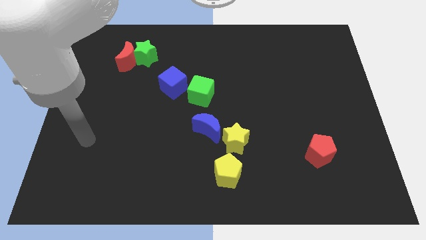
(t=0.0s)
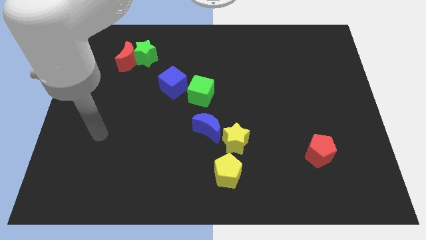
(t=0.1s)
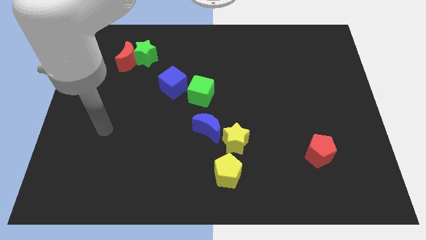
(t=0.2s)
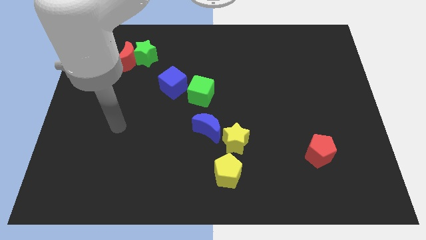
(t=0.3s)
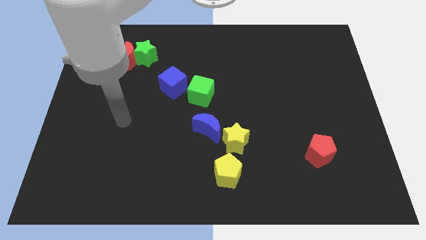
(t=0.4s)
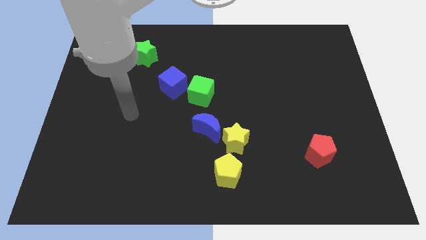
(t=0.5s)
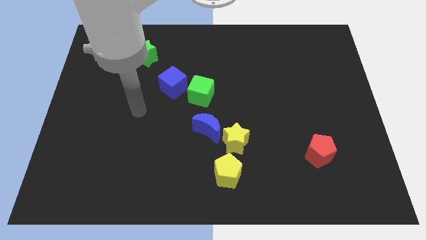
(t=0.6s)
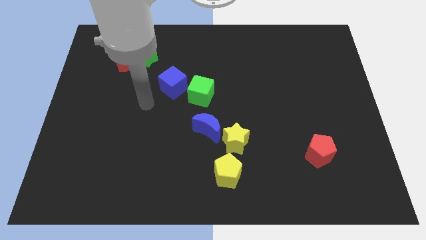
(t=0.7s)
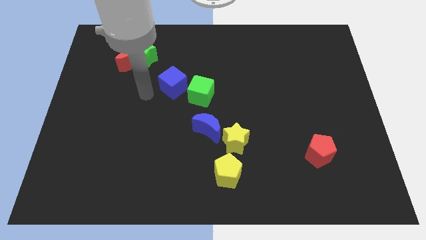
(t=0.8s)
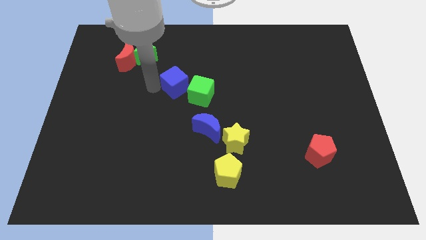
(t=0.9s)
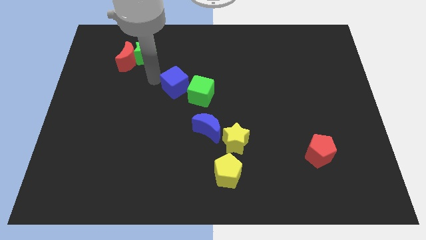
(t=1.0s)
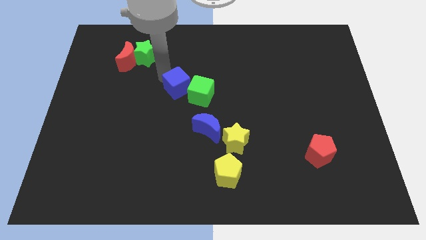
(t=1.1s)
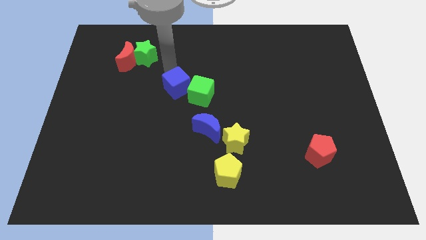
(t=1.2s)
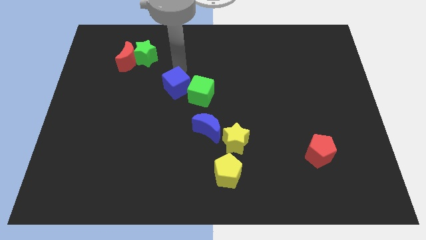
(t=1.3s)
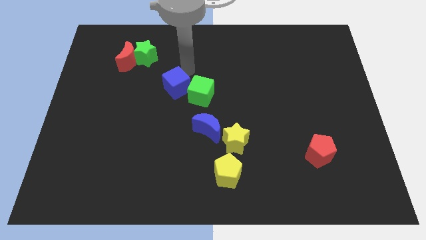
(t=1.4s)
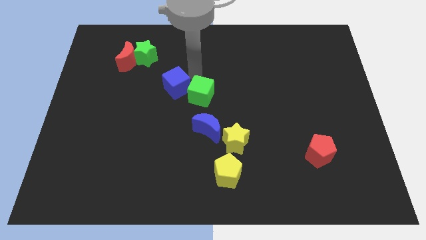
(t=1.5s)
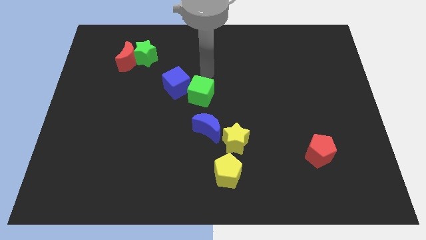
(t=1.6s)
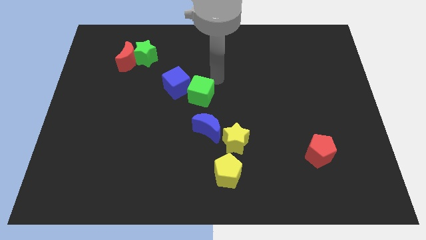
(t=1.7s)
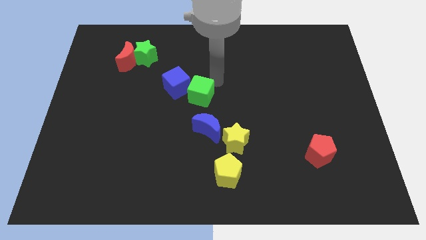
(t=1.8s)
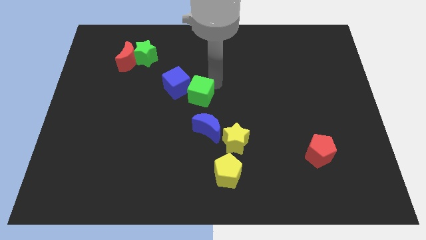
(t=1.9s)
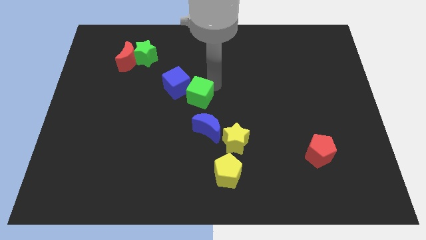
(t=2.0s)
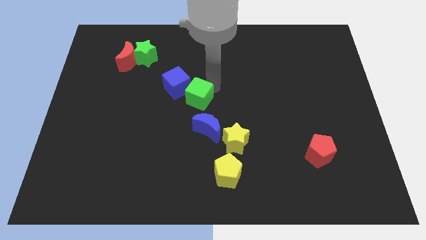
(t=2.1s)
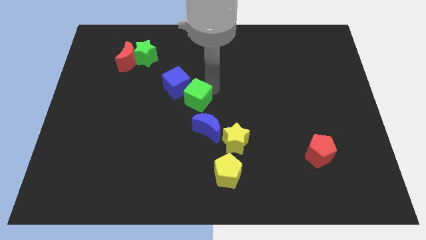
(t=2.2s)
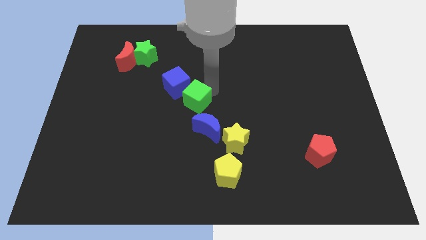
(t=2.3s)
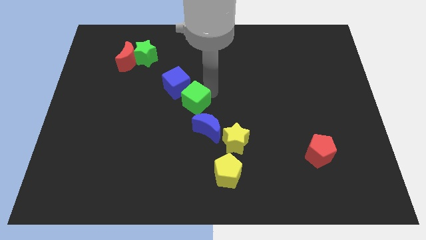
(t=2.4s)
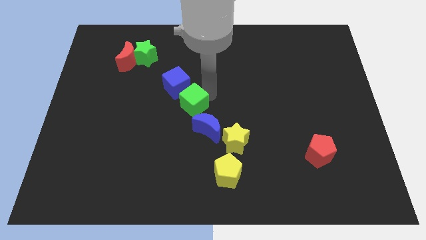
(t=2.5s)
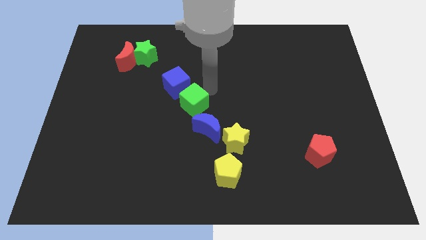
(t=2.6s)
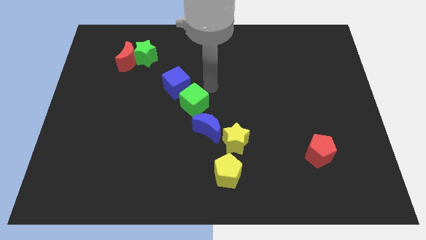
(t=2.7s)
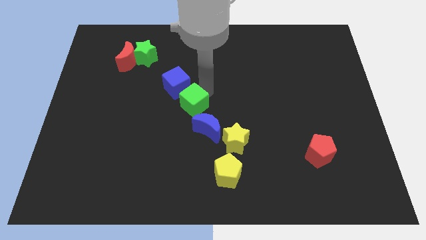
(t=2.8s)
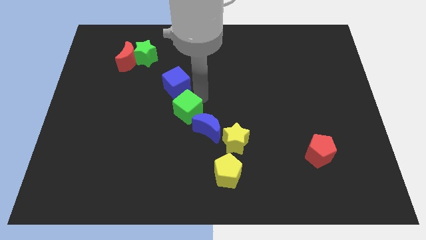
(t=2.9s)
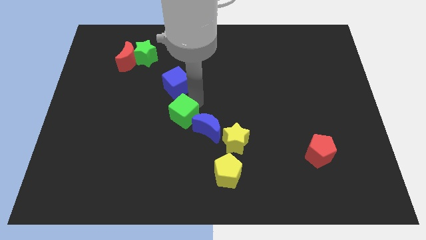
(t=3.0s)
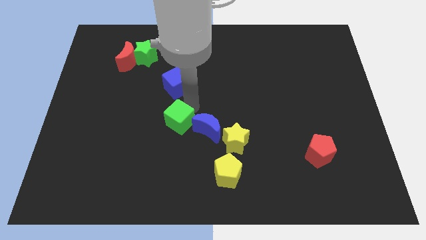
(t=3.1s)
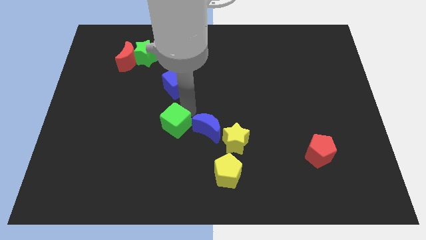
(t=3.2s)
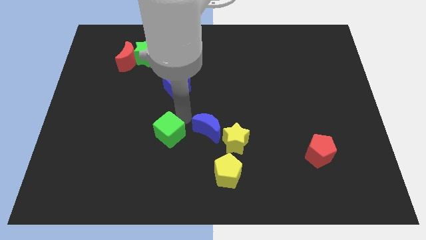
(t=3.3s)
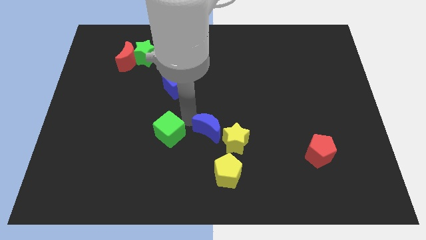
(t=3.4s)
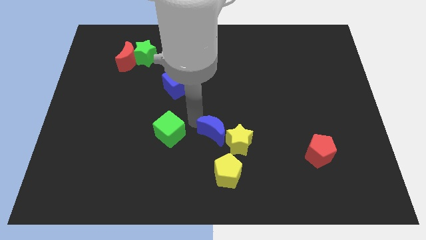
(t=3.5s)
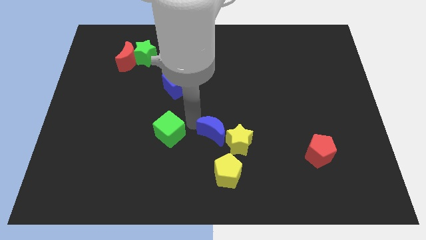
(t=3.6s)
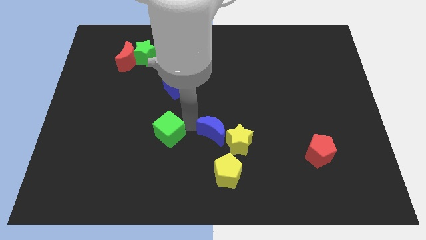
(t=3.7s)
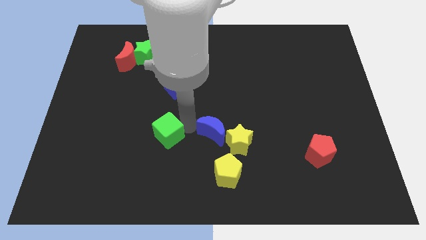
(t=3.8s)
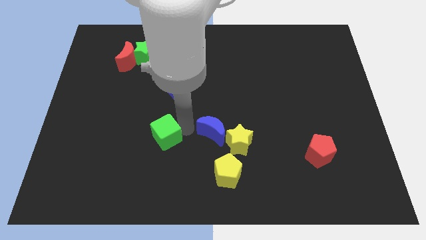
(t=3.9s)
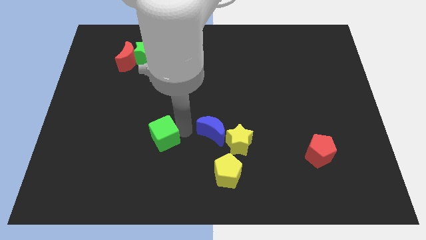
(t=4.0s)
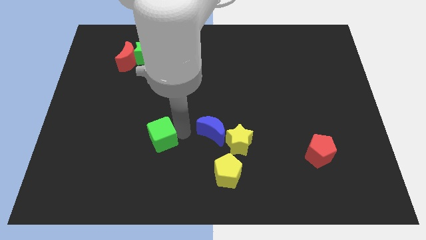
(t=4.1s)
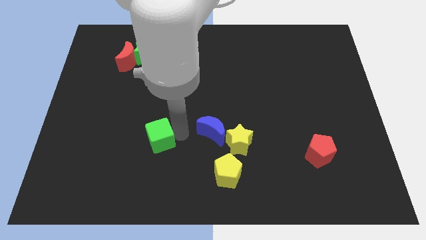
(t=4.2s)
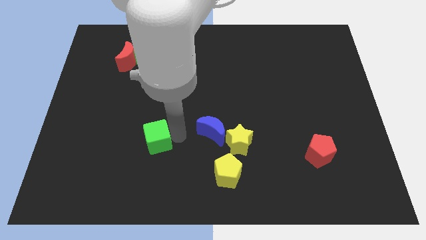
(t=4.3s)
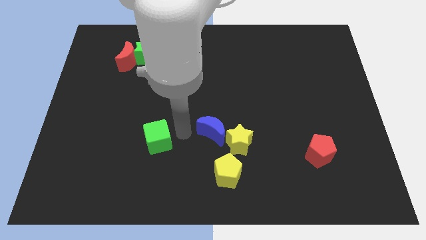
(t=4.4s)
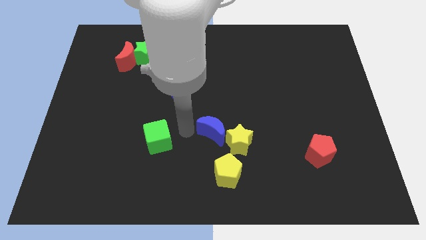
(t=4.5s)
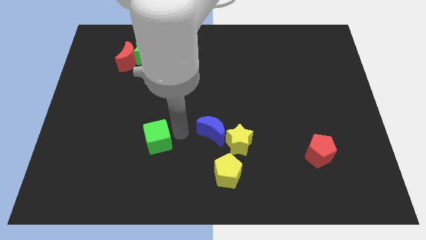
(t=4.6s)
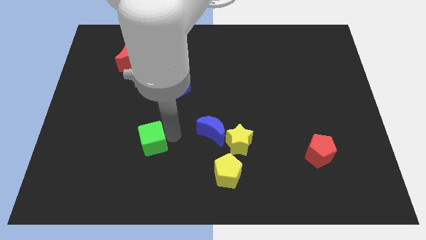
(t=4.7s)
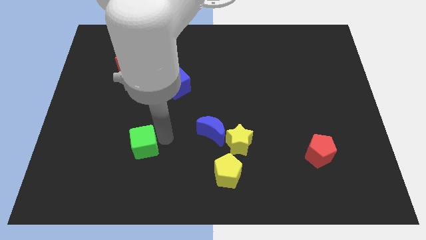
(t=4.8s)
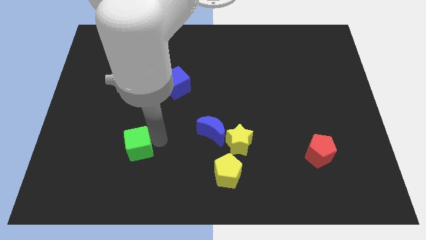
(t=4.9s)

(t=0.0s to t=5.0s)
slide the green cube down and then left

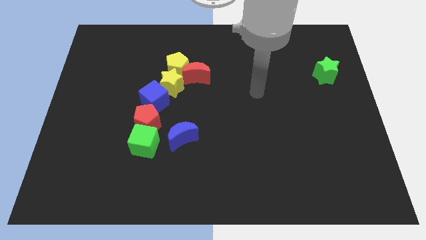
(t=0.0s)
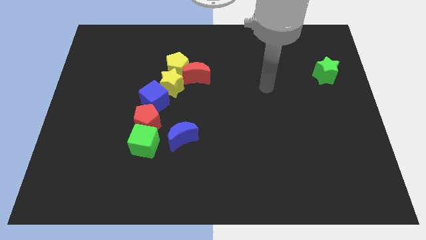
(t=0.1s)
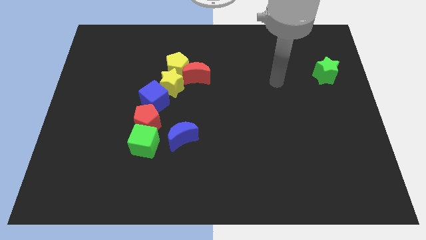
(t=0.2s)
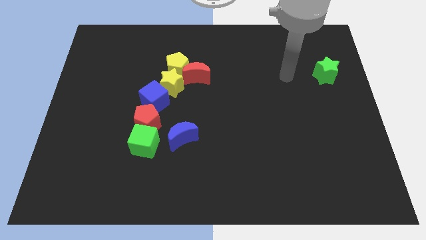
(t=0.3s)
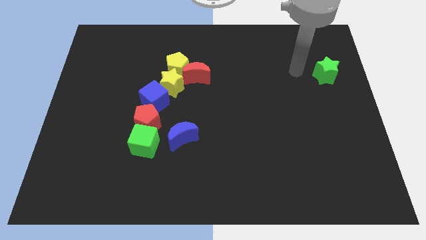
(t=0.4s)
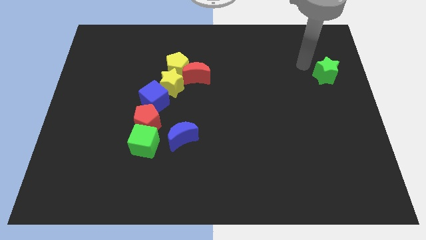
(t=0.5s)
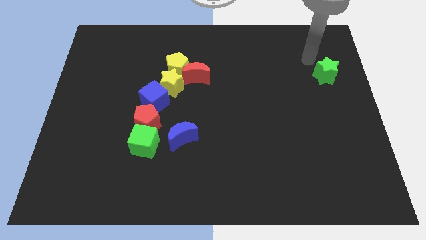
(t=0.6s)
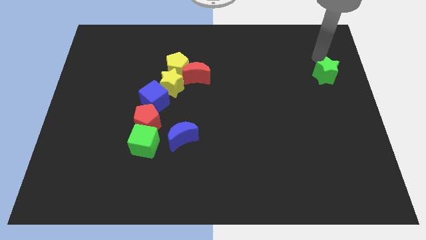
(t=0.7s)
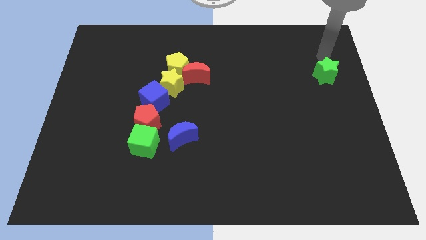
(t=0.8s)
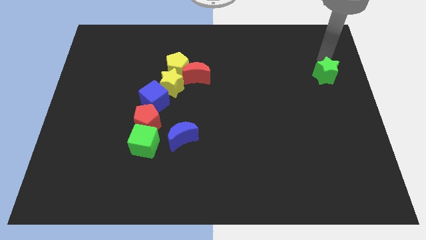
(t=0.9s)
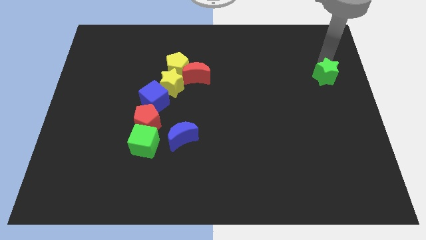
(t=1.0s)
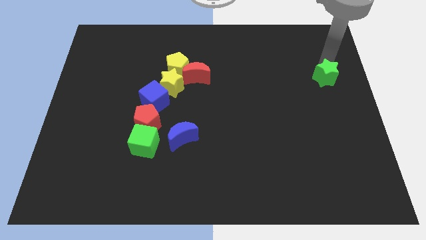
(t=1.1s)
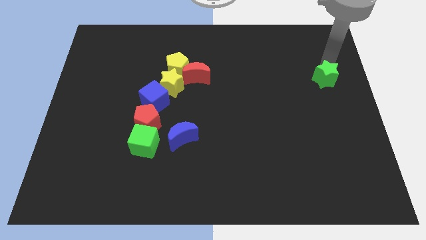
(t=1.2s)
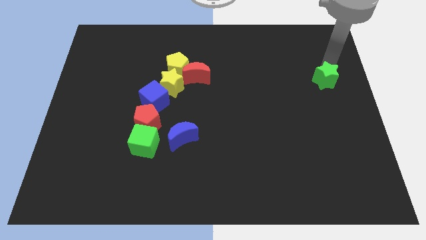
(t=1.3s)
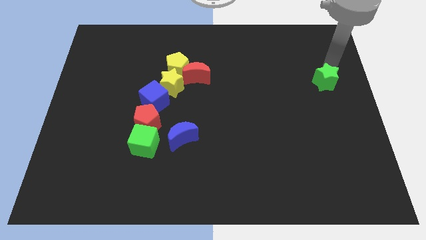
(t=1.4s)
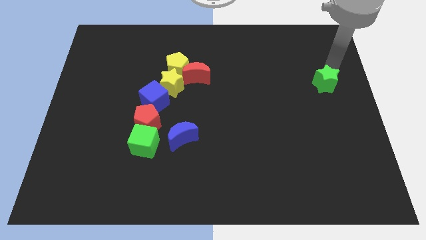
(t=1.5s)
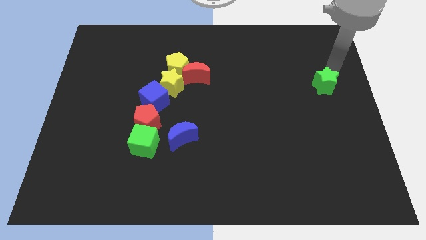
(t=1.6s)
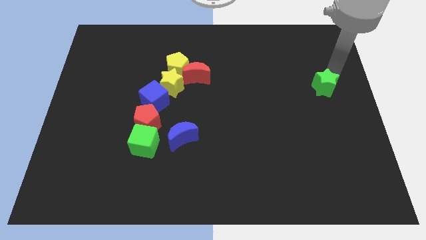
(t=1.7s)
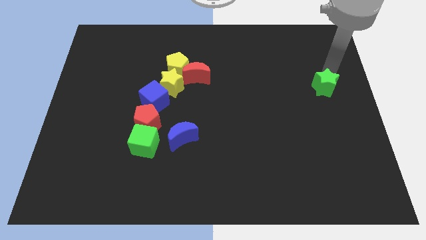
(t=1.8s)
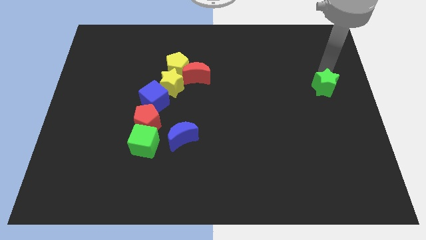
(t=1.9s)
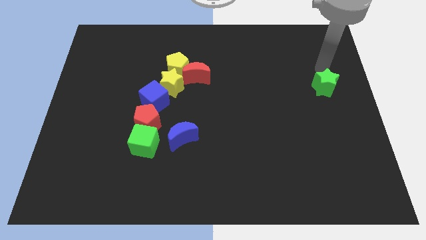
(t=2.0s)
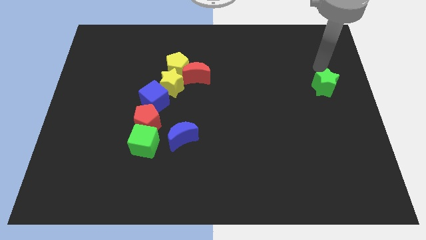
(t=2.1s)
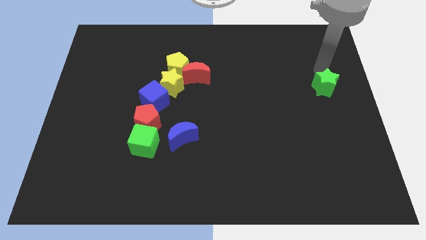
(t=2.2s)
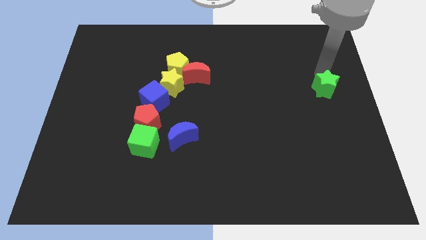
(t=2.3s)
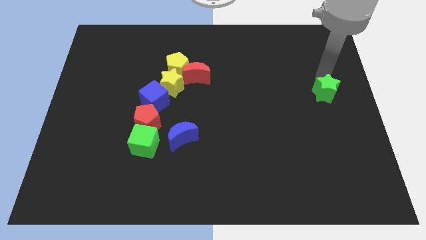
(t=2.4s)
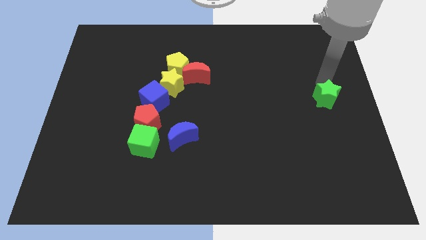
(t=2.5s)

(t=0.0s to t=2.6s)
move the green star down a bit
